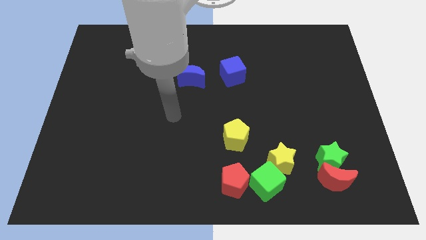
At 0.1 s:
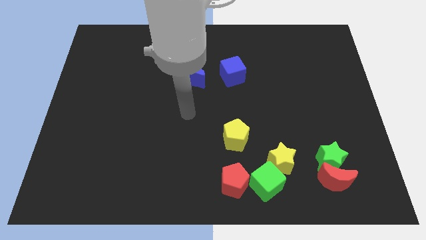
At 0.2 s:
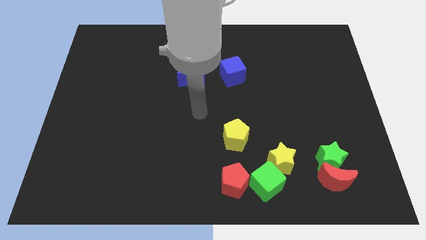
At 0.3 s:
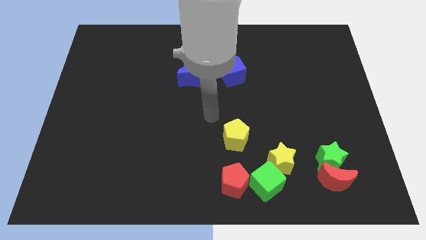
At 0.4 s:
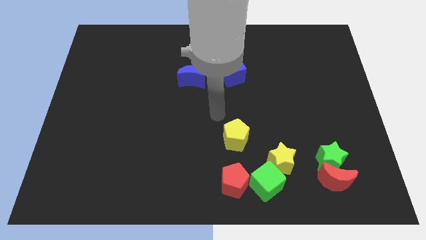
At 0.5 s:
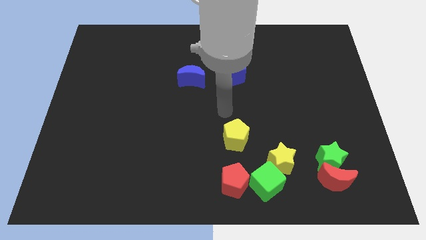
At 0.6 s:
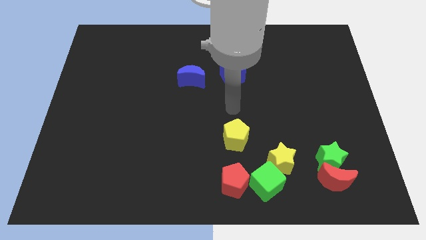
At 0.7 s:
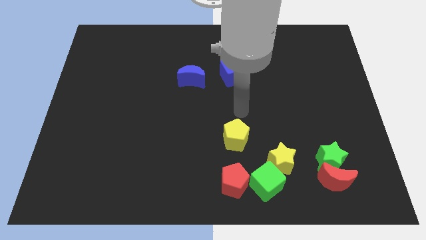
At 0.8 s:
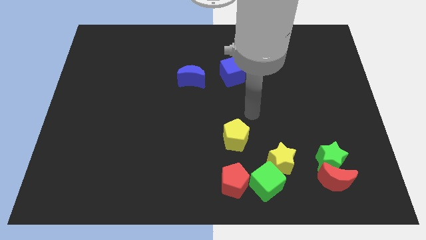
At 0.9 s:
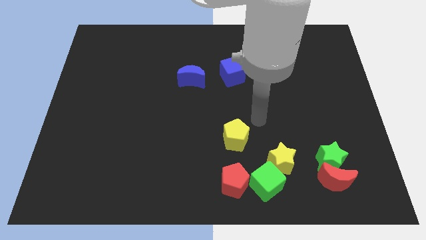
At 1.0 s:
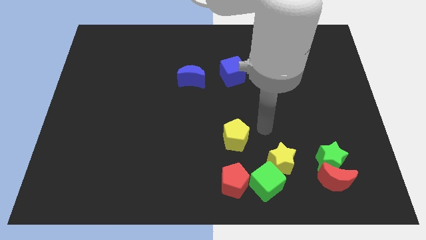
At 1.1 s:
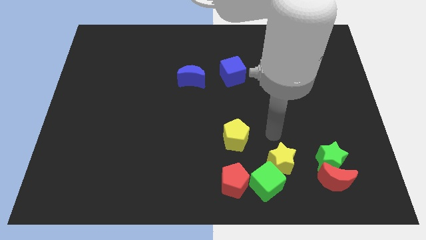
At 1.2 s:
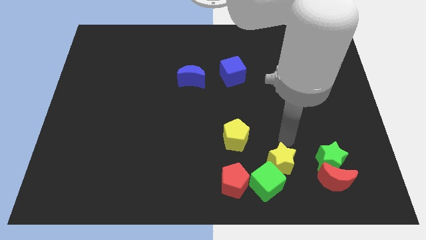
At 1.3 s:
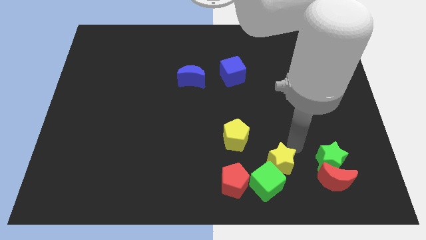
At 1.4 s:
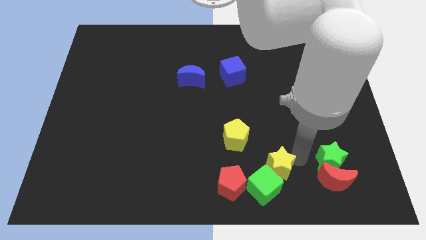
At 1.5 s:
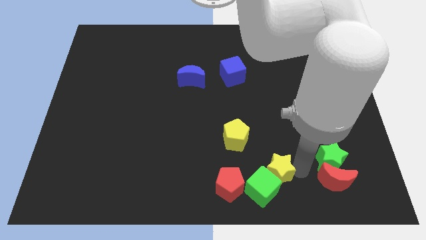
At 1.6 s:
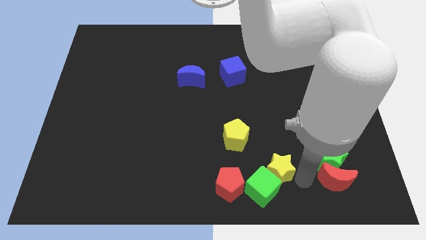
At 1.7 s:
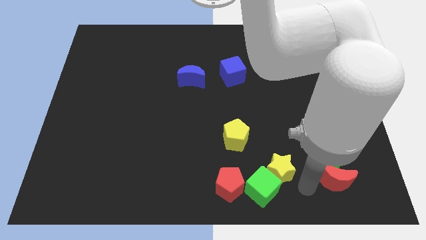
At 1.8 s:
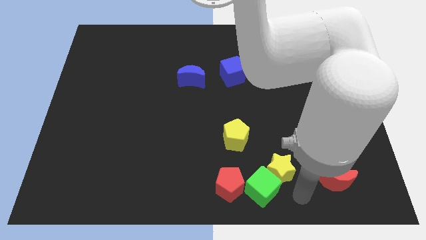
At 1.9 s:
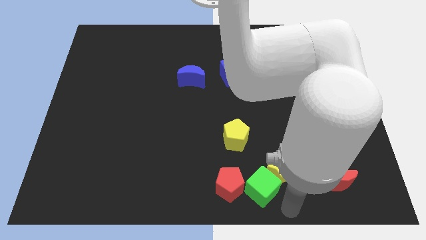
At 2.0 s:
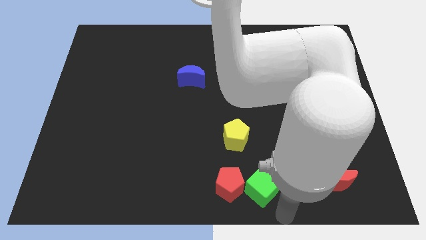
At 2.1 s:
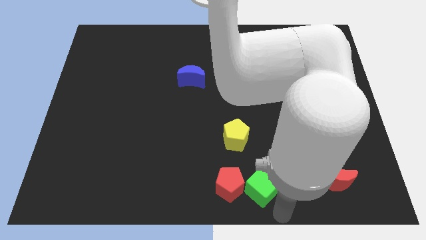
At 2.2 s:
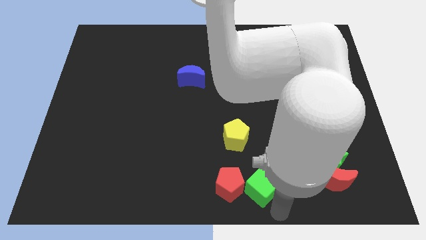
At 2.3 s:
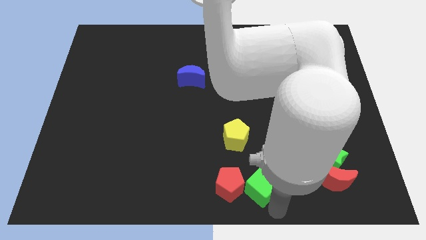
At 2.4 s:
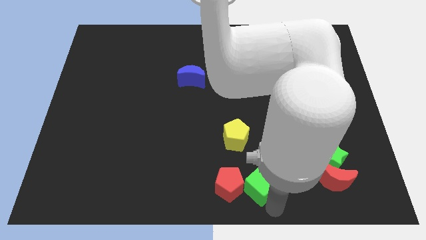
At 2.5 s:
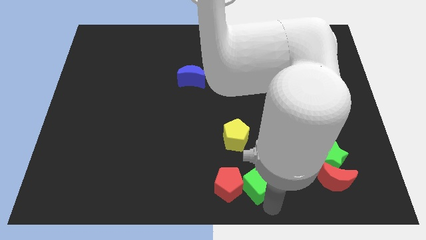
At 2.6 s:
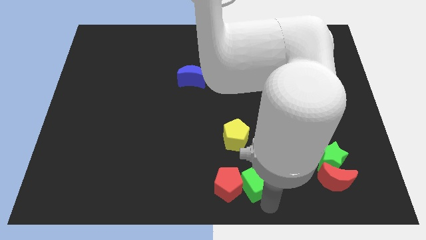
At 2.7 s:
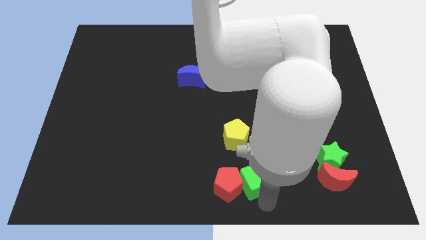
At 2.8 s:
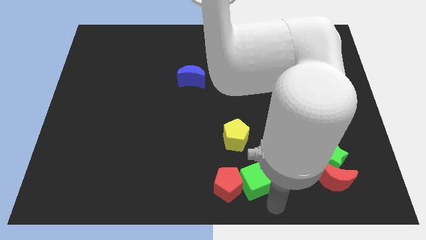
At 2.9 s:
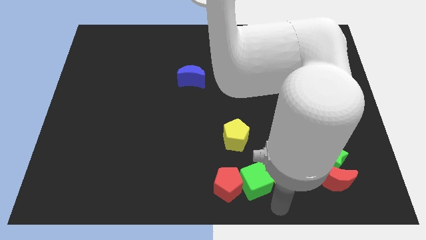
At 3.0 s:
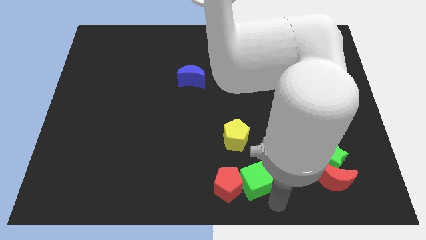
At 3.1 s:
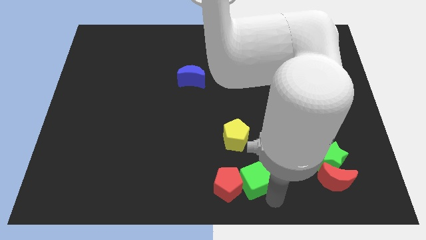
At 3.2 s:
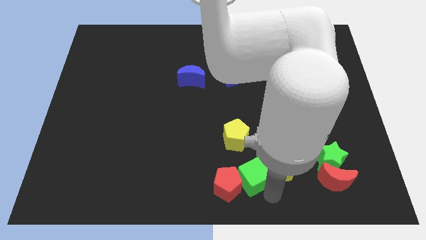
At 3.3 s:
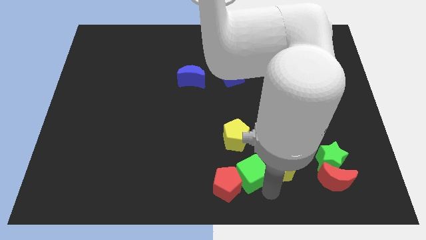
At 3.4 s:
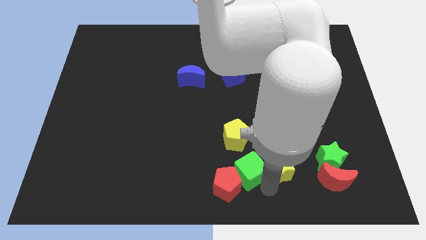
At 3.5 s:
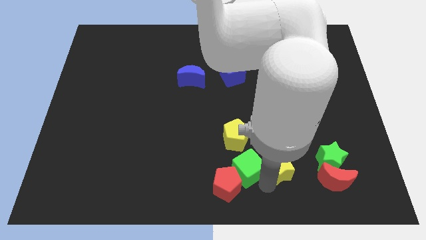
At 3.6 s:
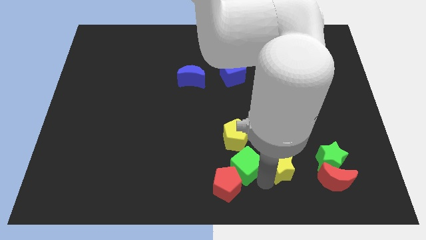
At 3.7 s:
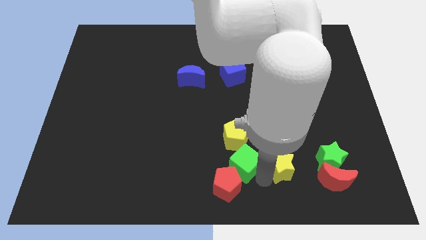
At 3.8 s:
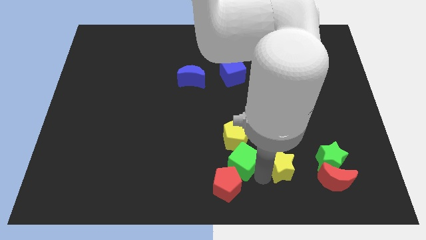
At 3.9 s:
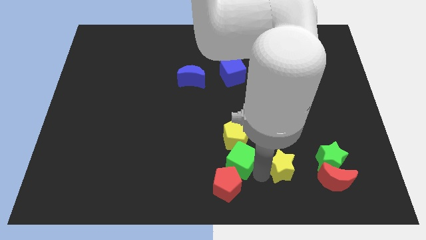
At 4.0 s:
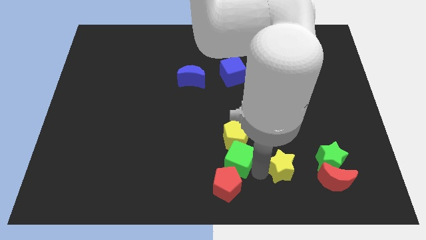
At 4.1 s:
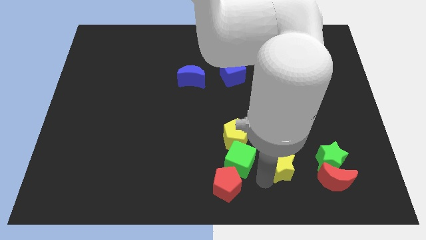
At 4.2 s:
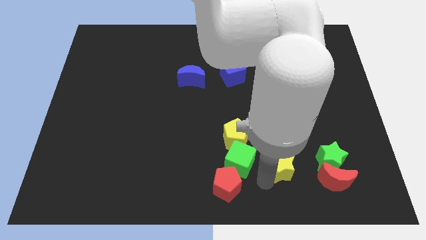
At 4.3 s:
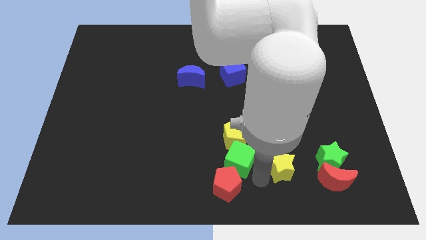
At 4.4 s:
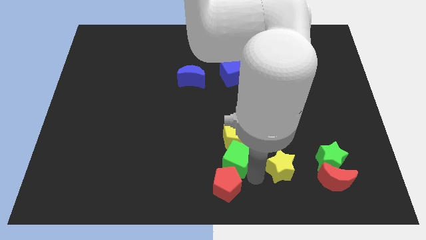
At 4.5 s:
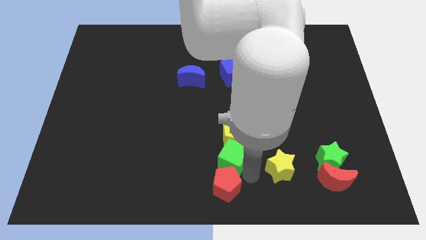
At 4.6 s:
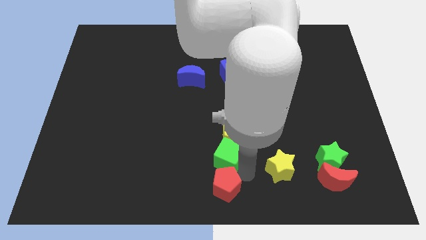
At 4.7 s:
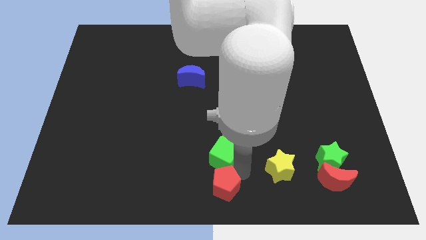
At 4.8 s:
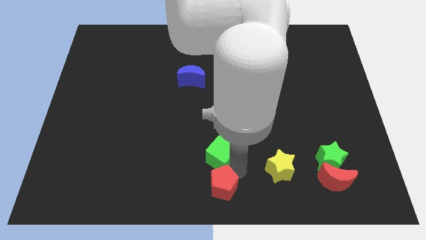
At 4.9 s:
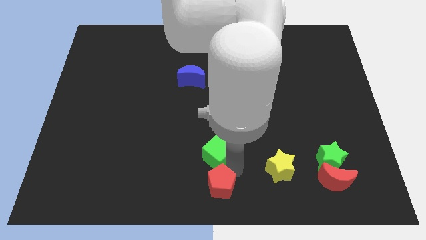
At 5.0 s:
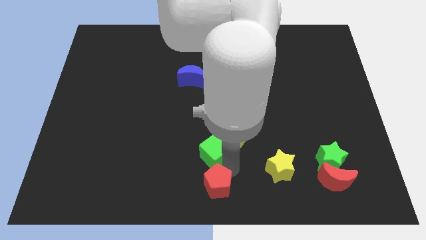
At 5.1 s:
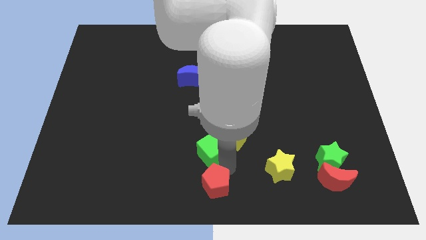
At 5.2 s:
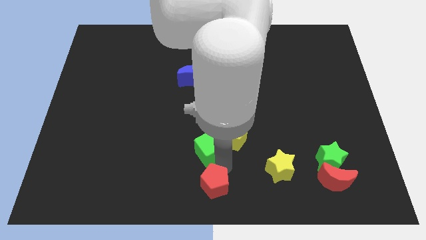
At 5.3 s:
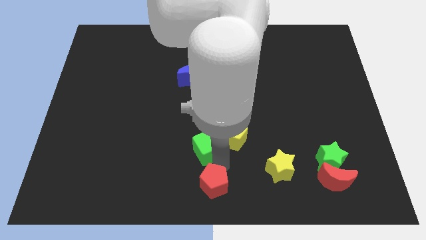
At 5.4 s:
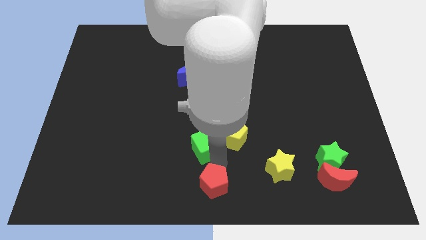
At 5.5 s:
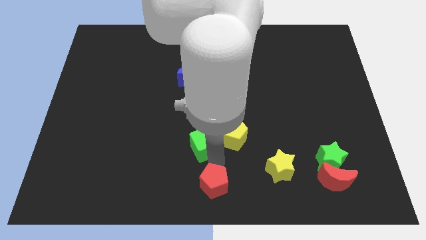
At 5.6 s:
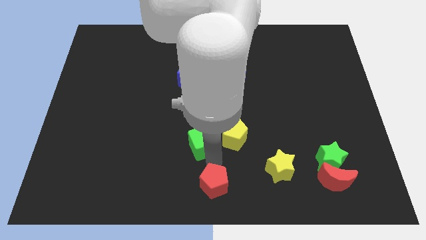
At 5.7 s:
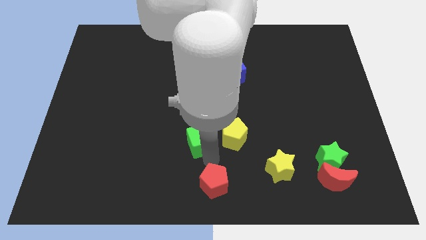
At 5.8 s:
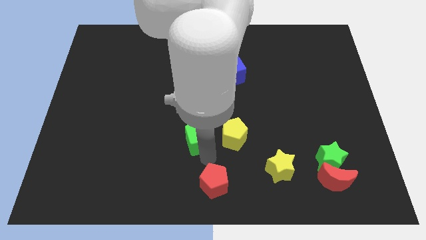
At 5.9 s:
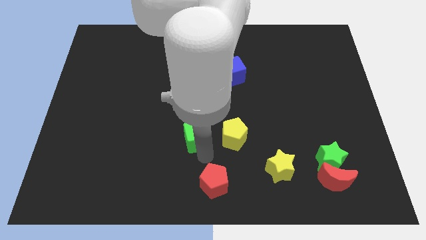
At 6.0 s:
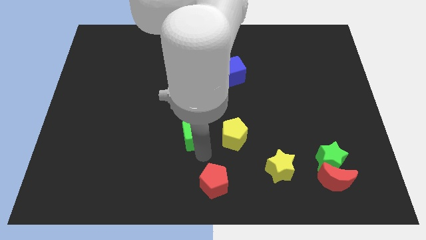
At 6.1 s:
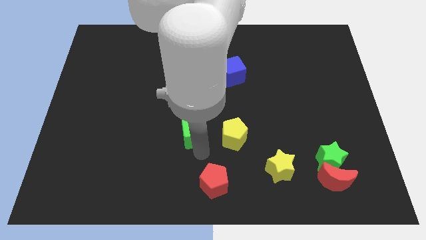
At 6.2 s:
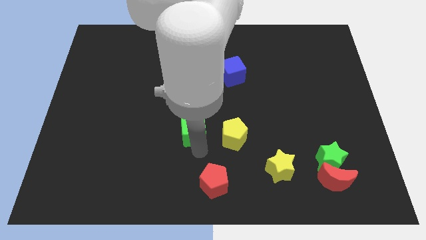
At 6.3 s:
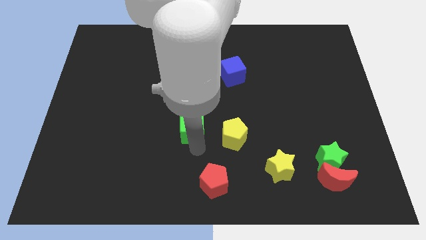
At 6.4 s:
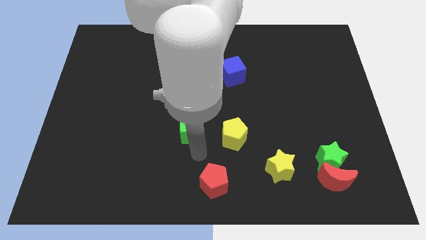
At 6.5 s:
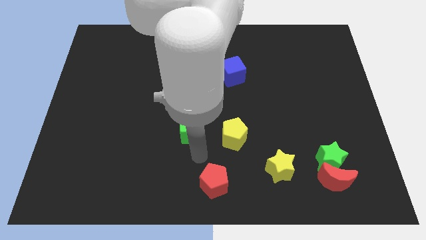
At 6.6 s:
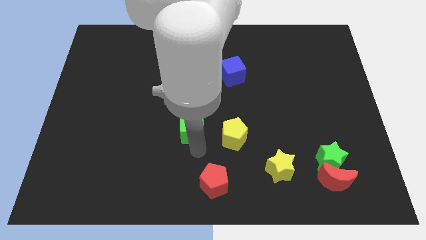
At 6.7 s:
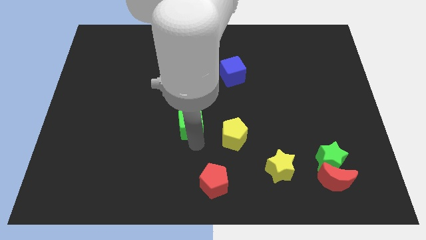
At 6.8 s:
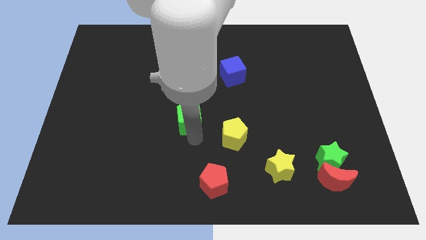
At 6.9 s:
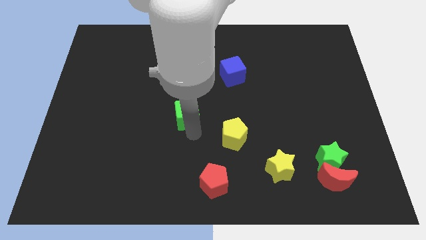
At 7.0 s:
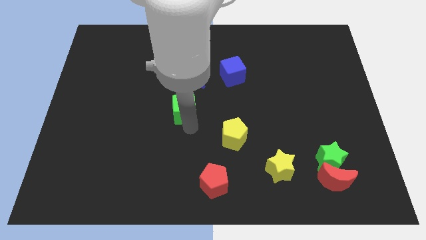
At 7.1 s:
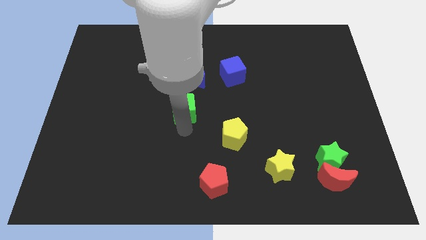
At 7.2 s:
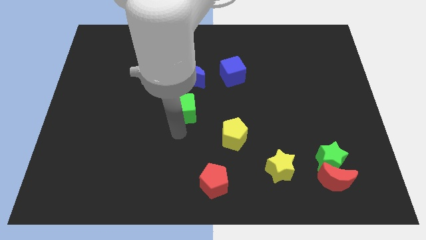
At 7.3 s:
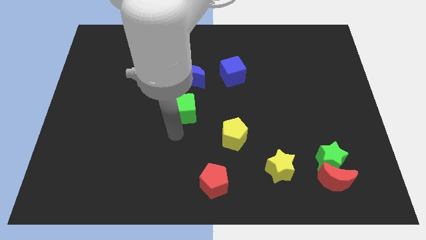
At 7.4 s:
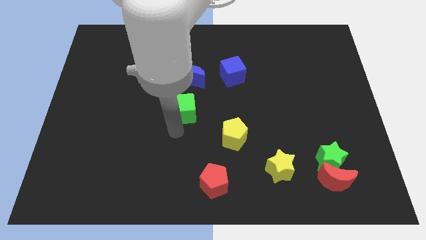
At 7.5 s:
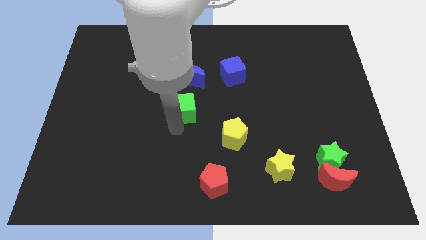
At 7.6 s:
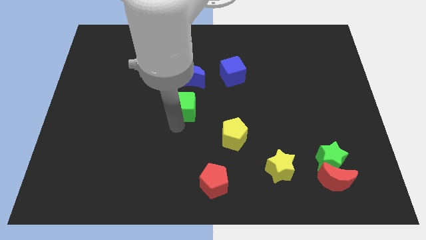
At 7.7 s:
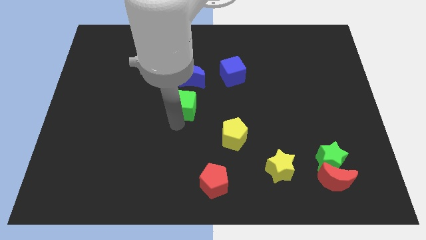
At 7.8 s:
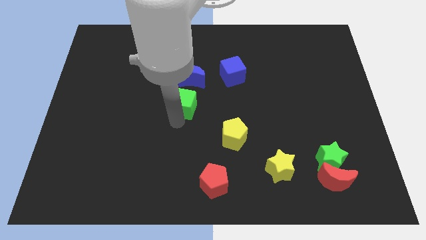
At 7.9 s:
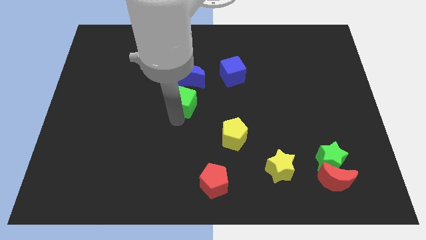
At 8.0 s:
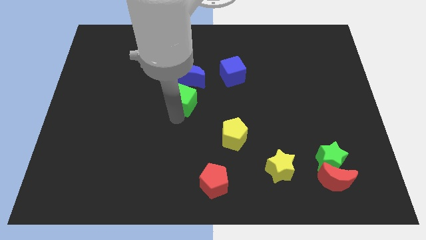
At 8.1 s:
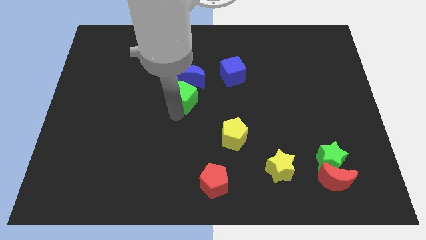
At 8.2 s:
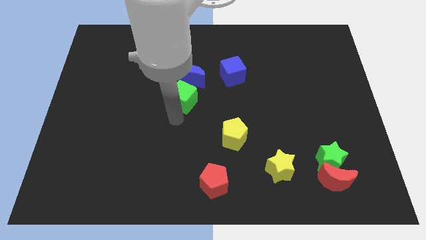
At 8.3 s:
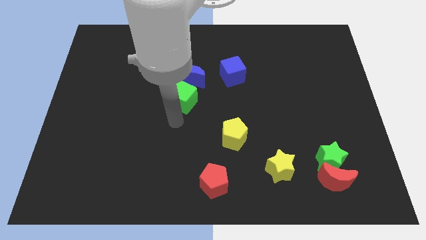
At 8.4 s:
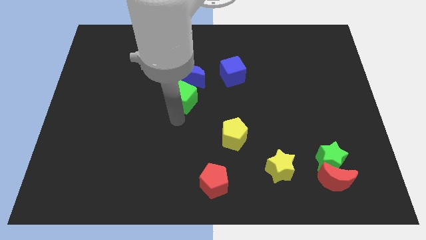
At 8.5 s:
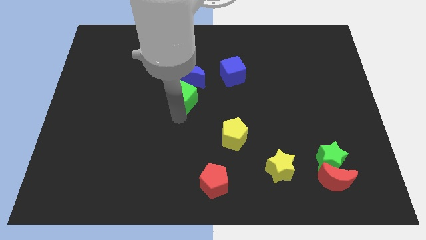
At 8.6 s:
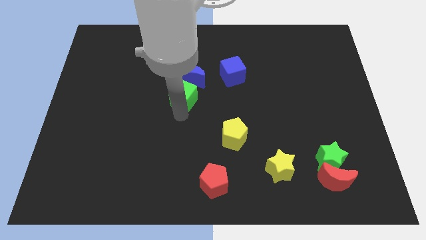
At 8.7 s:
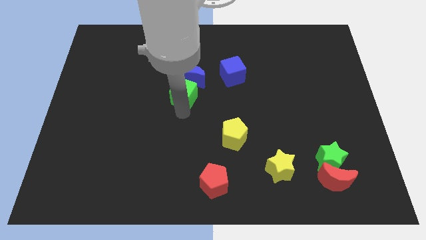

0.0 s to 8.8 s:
put the green cube close to the blue moon
